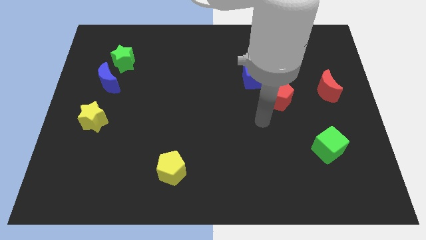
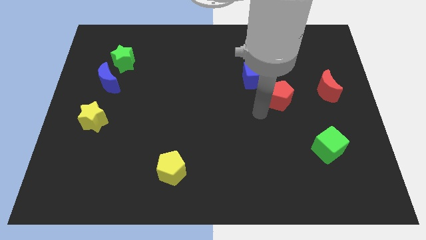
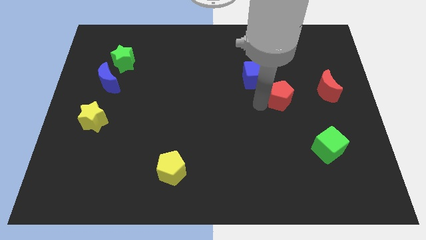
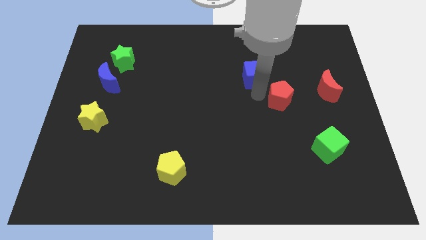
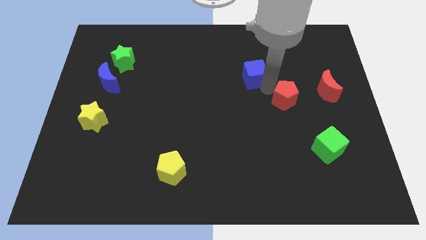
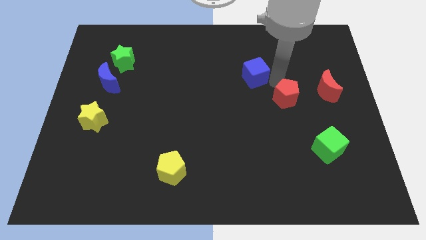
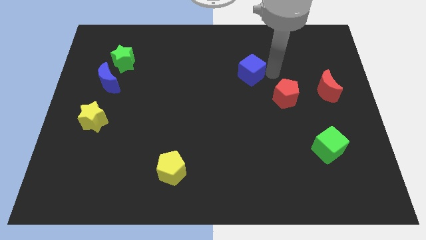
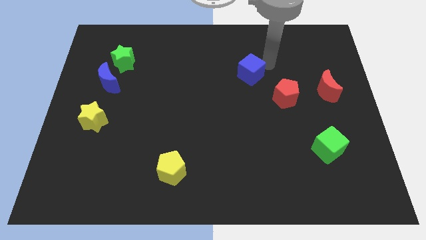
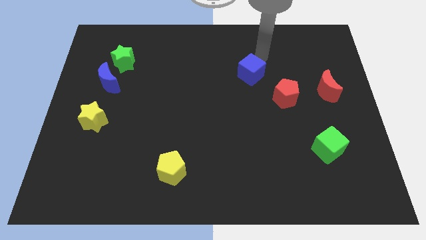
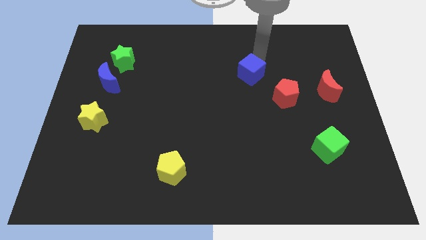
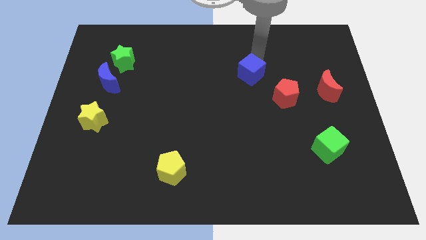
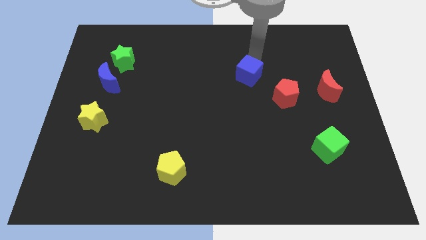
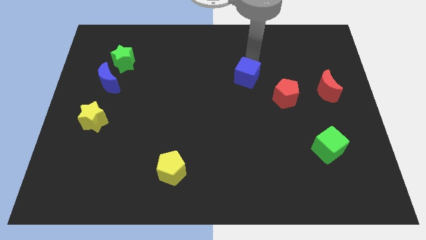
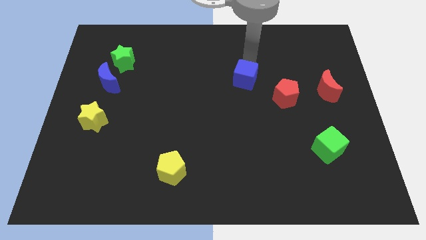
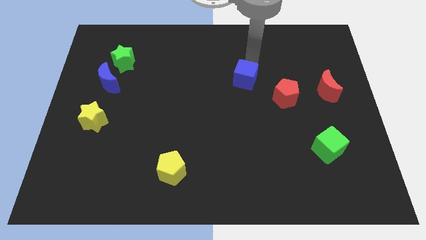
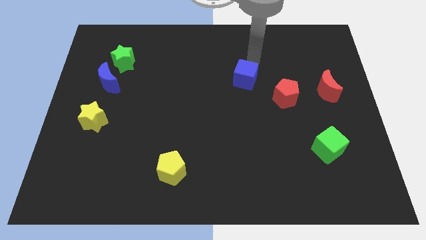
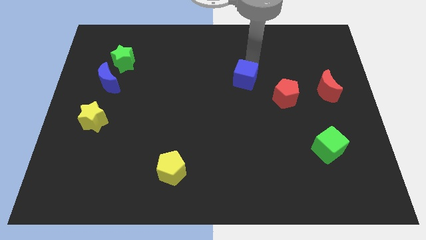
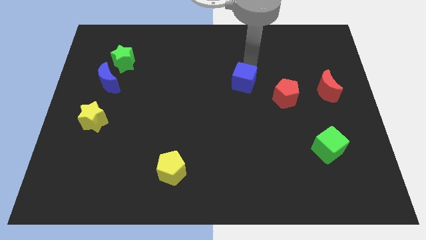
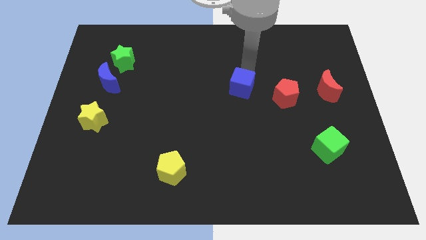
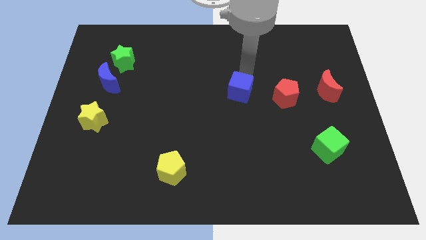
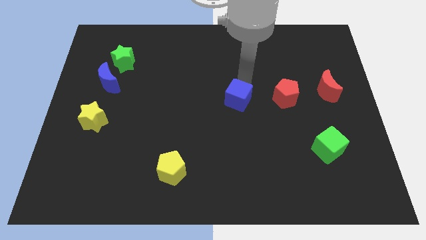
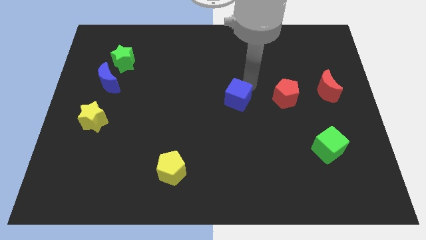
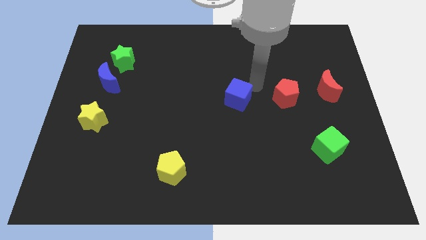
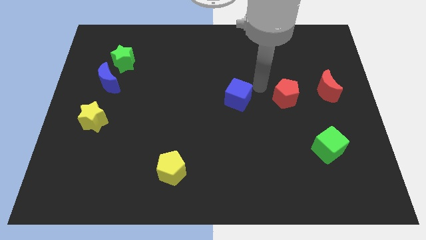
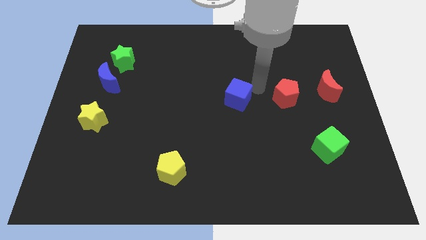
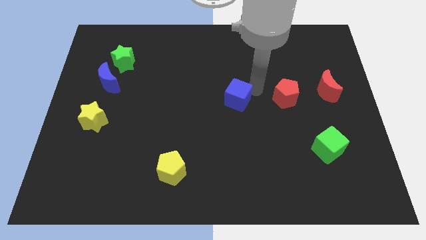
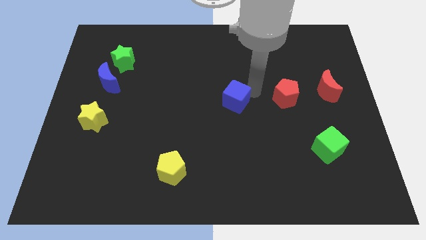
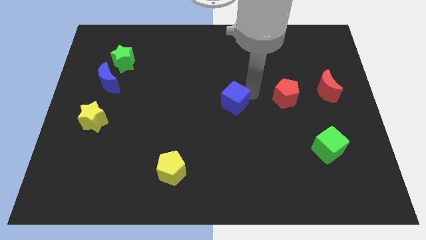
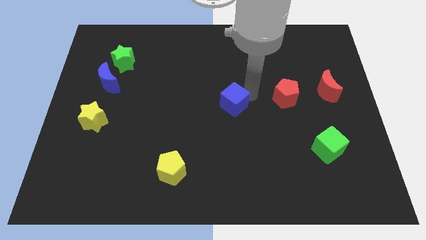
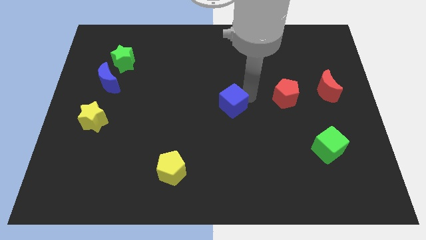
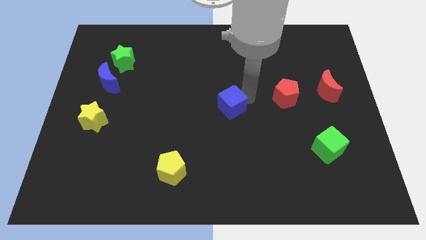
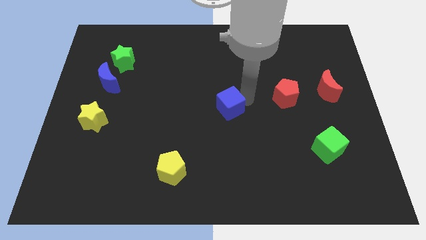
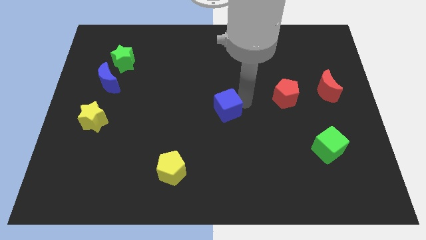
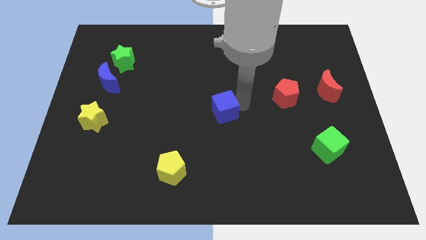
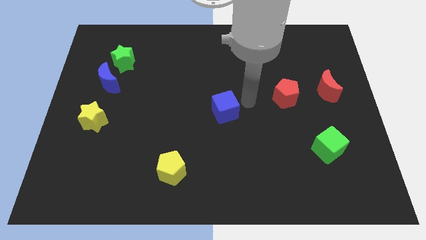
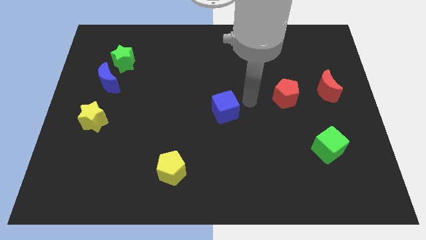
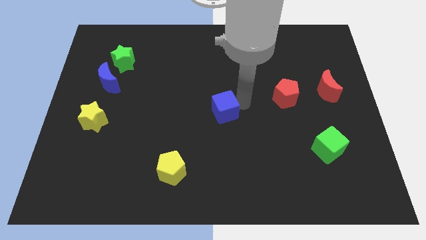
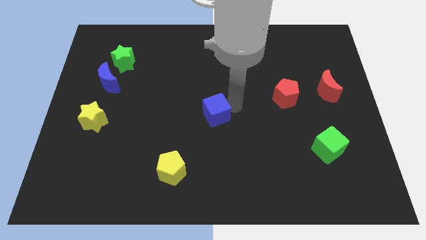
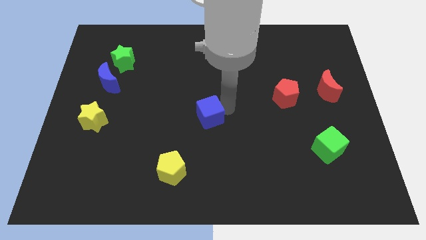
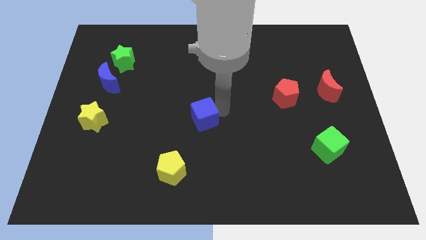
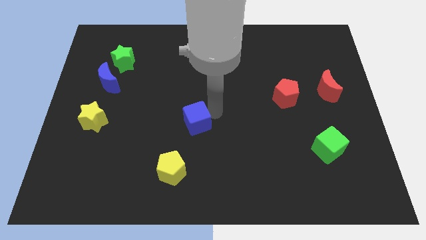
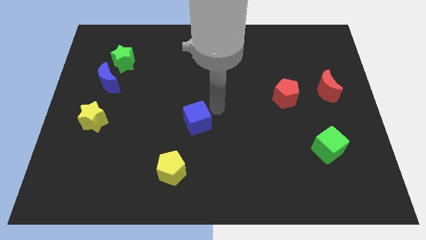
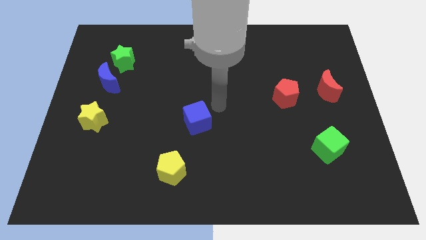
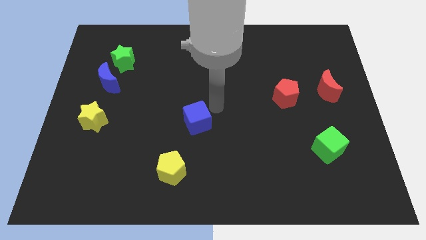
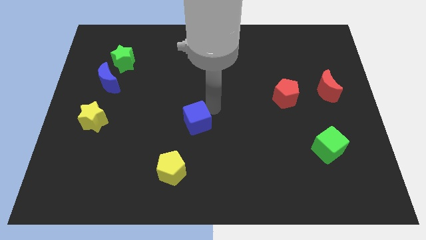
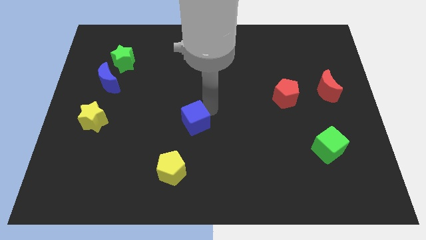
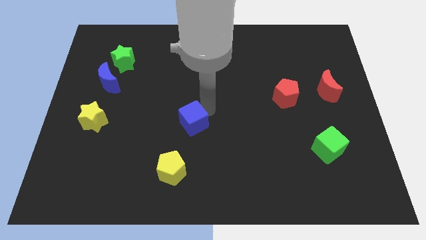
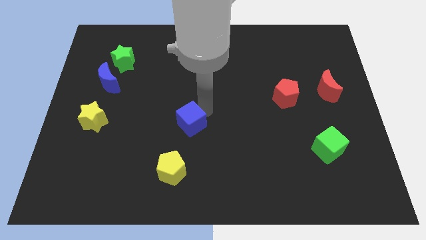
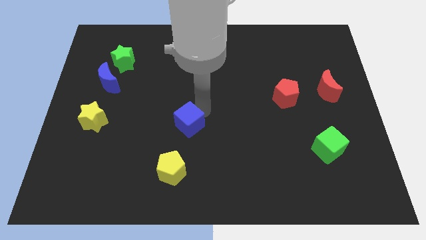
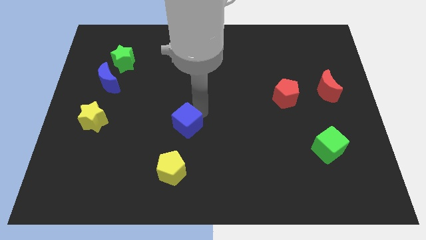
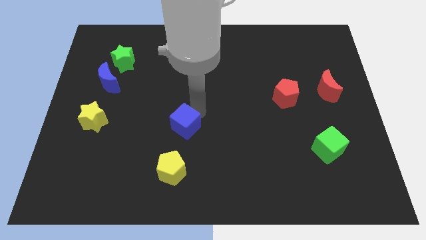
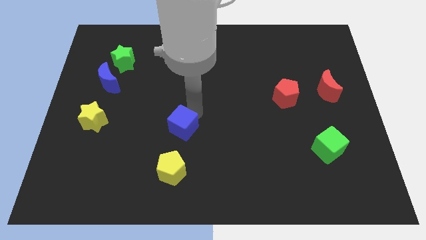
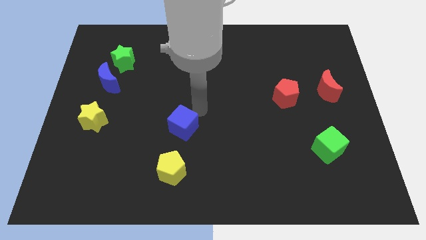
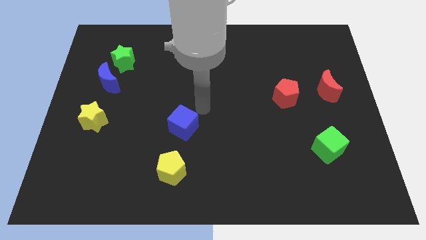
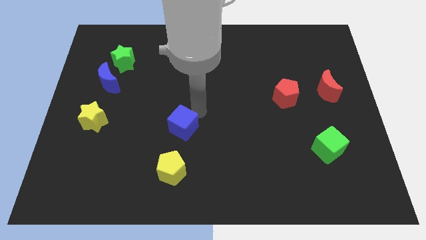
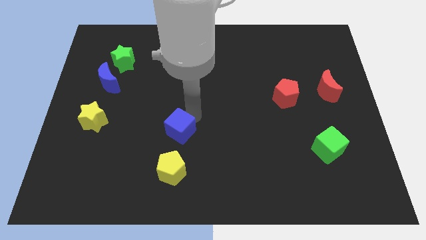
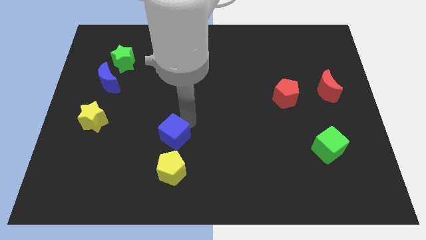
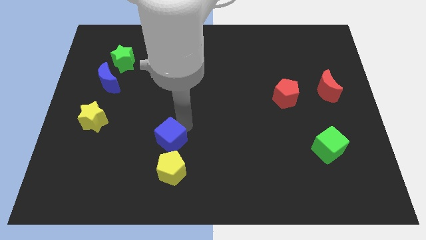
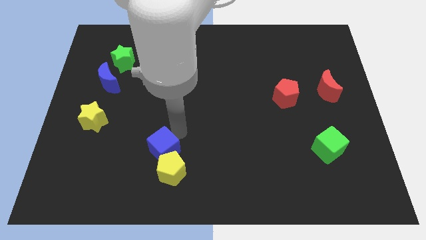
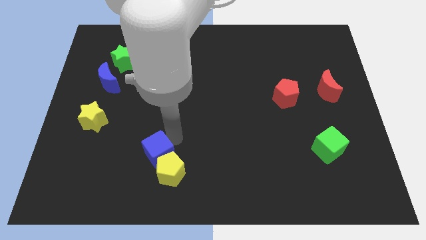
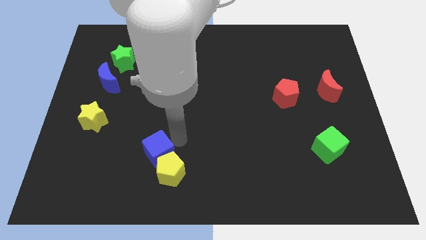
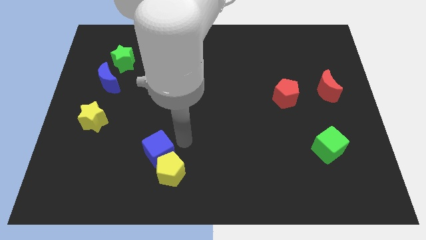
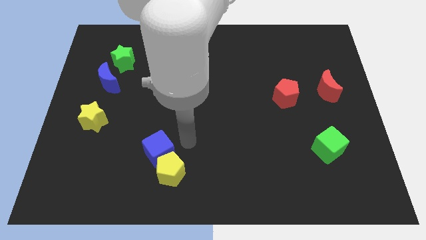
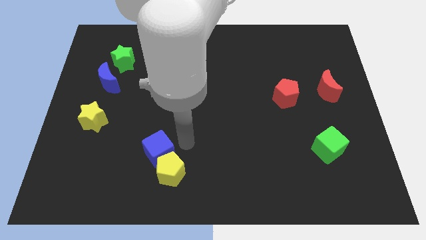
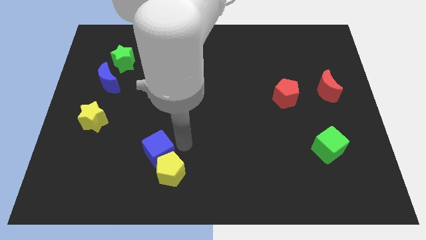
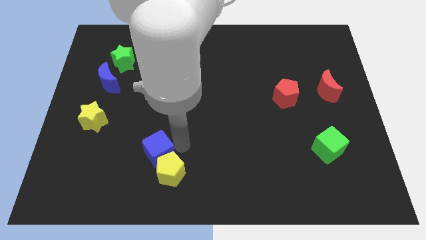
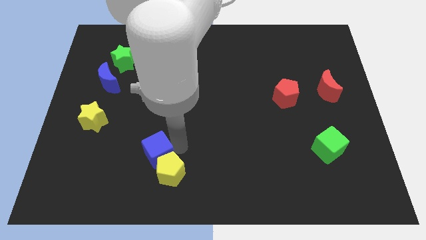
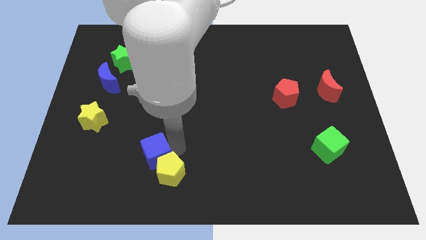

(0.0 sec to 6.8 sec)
slide the blue cube to the left of the yellow pentagon

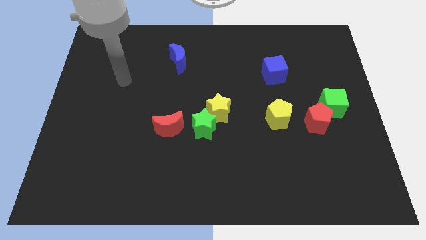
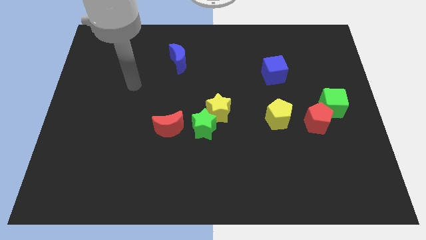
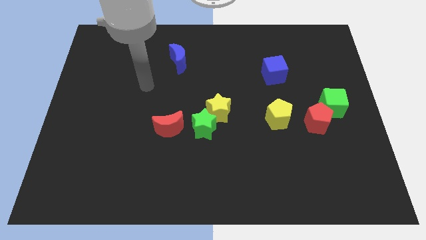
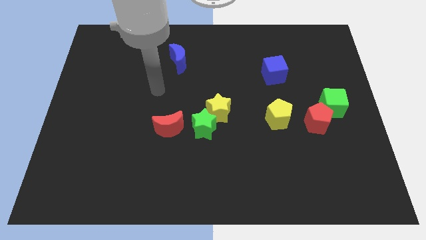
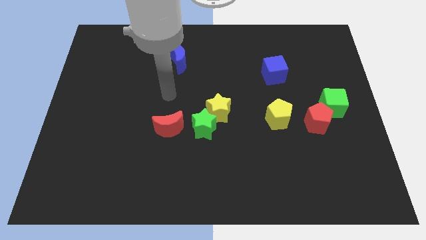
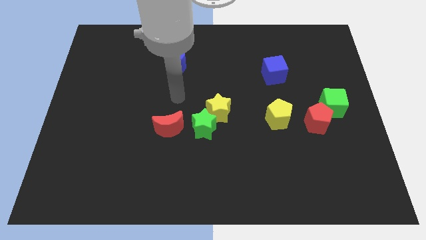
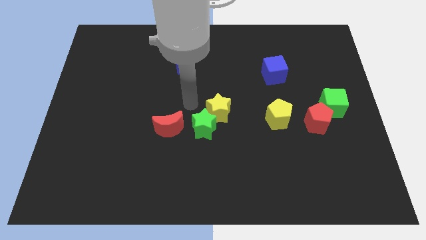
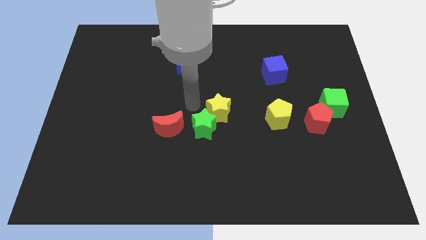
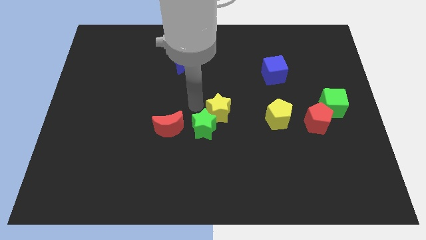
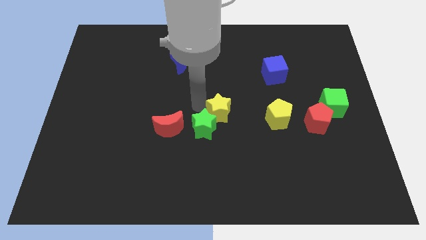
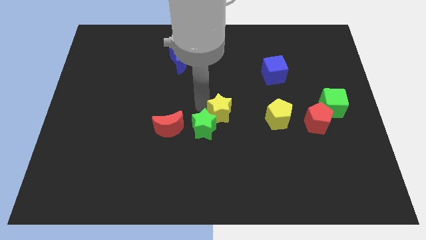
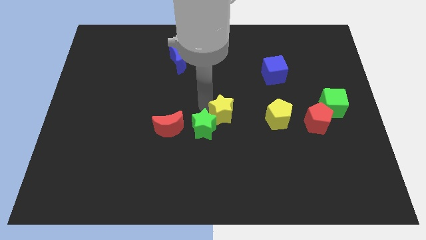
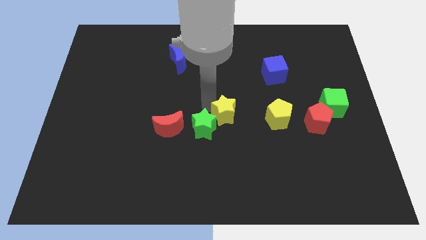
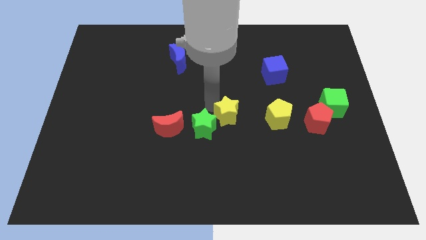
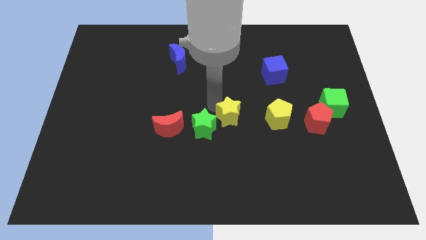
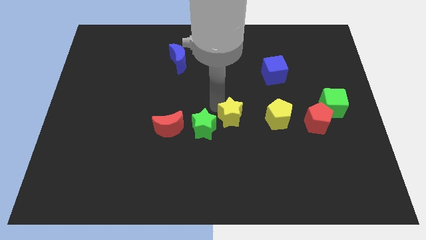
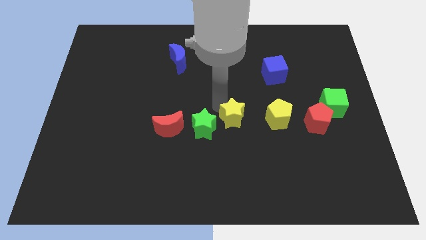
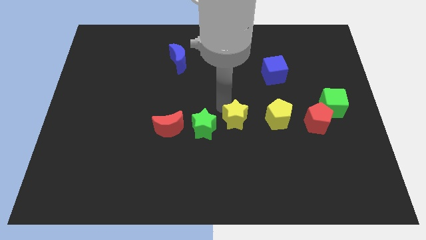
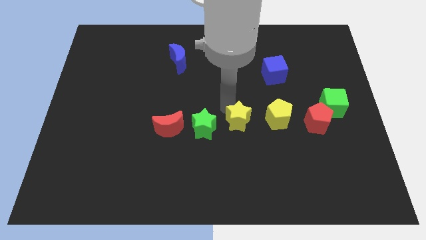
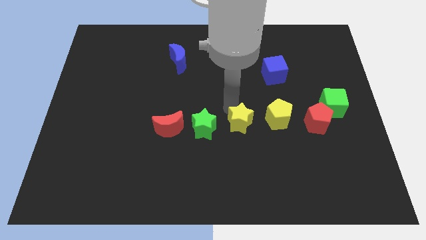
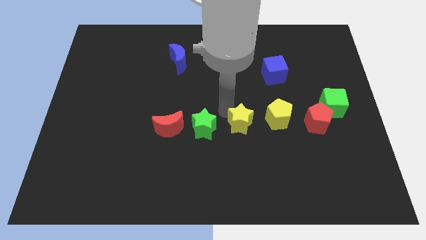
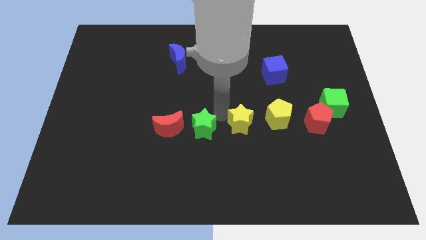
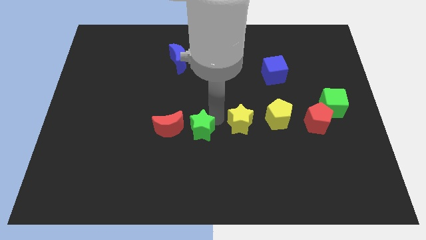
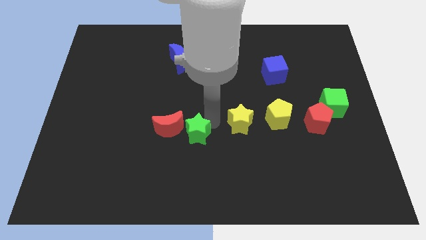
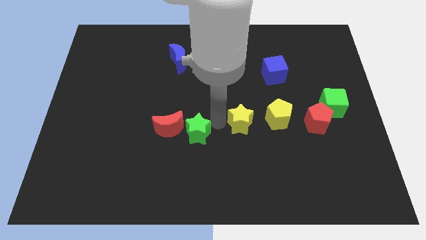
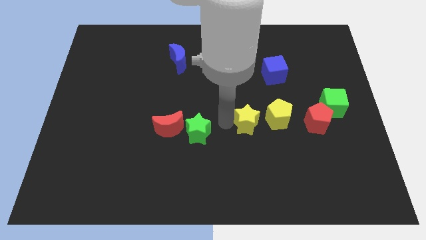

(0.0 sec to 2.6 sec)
slide the yellow star just left of the red pentagon
